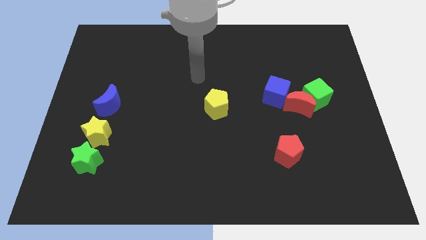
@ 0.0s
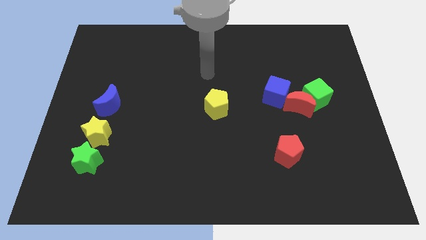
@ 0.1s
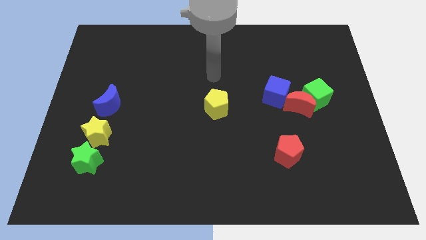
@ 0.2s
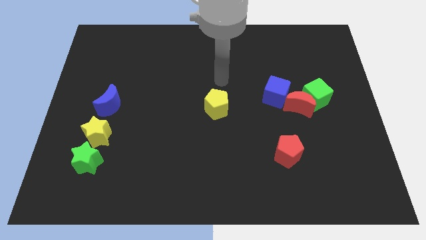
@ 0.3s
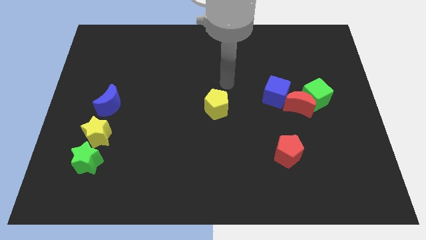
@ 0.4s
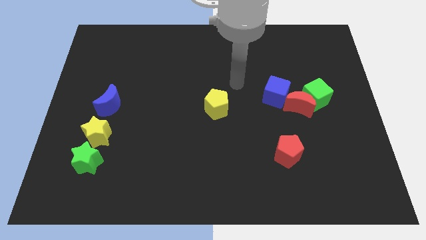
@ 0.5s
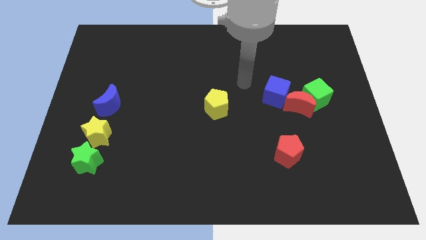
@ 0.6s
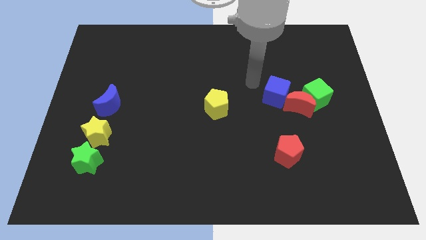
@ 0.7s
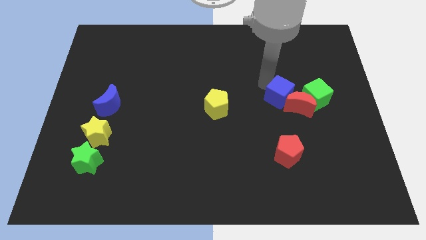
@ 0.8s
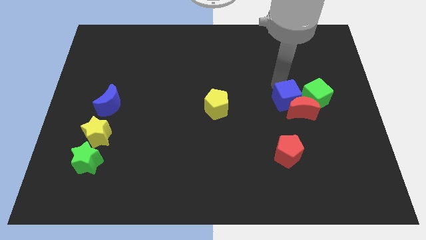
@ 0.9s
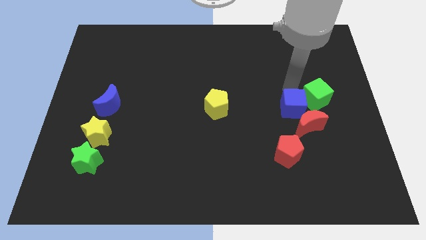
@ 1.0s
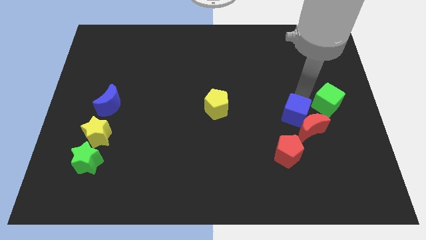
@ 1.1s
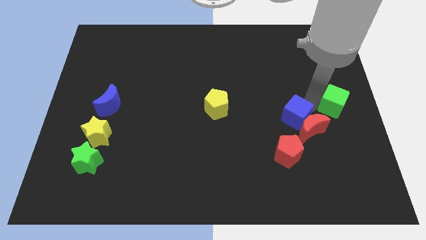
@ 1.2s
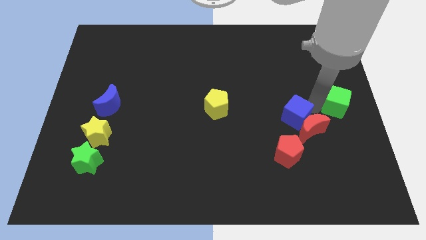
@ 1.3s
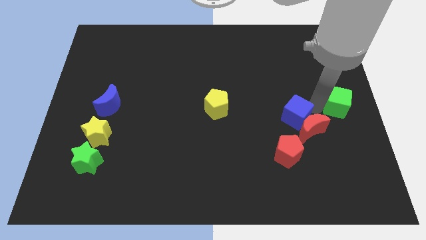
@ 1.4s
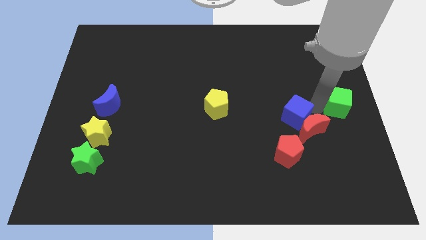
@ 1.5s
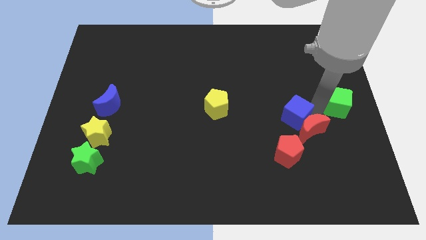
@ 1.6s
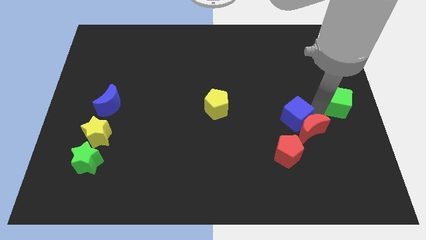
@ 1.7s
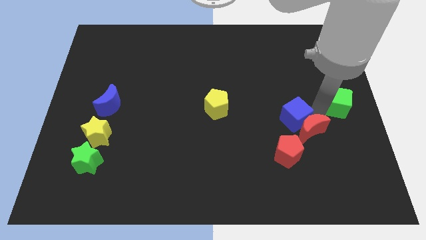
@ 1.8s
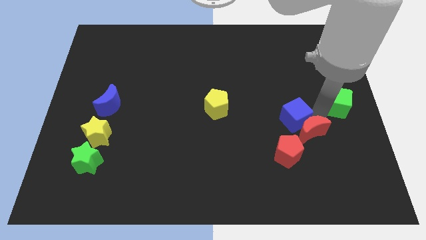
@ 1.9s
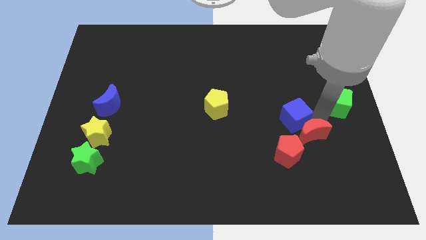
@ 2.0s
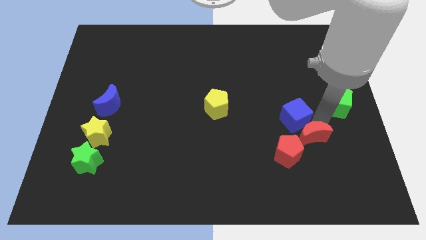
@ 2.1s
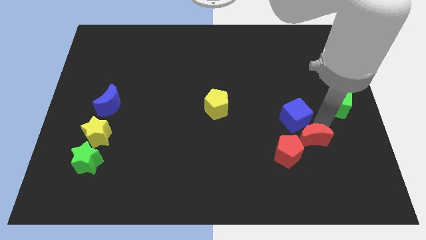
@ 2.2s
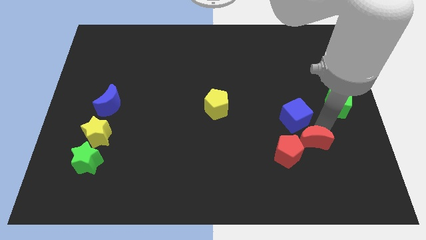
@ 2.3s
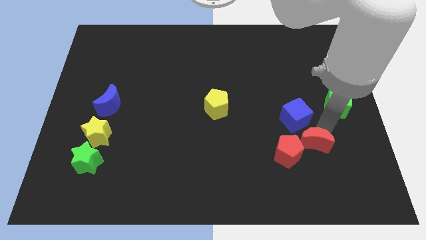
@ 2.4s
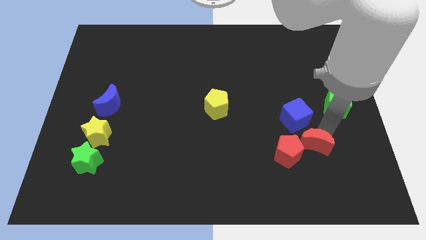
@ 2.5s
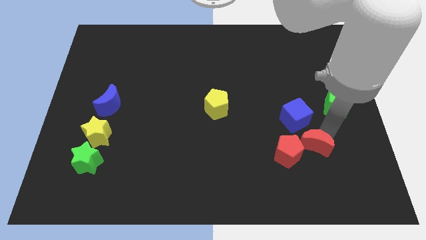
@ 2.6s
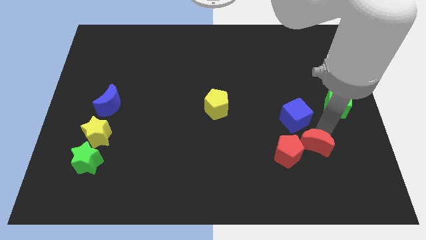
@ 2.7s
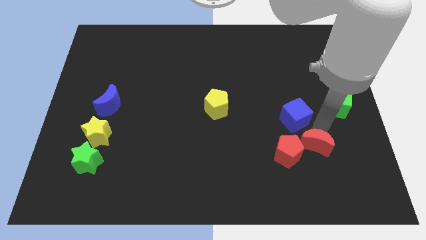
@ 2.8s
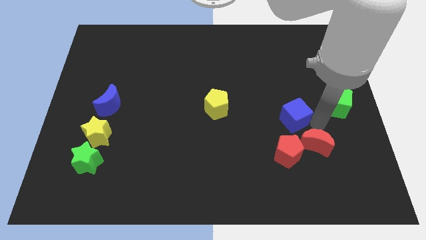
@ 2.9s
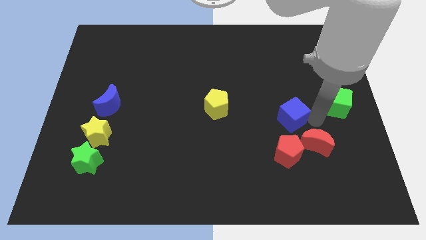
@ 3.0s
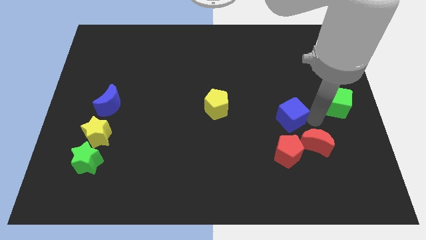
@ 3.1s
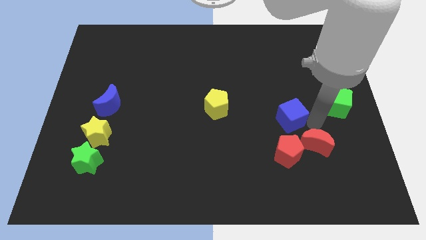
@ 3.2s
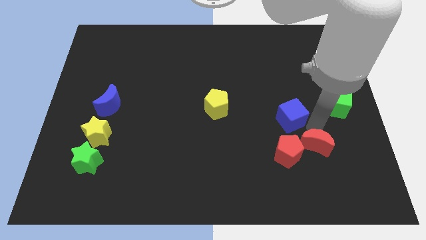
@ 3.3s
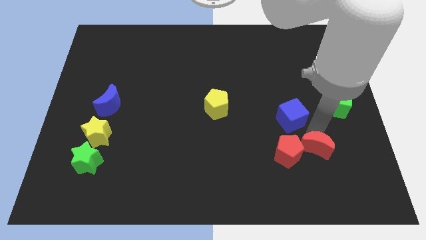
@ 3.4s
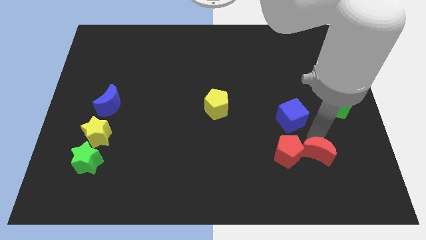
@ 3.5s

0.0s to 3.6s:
move the red moon away from the green cube and blue cube

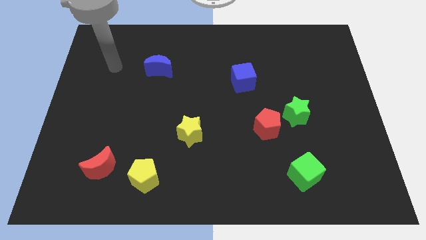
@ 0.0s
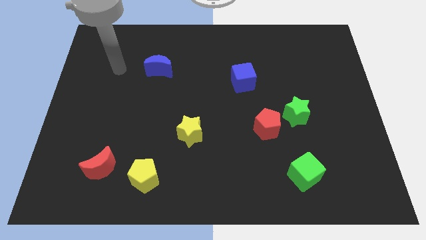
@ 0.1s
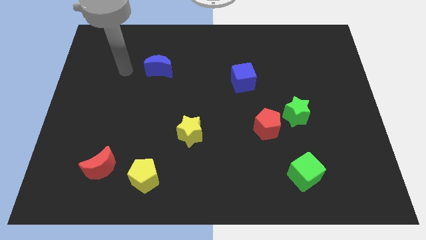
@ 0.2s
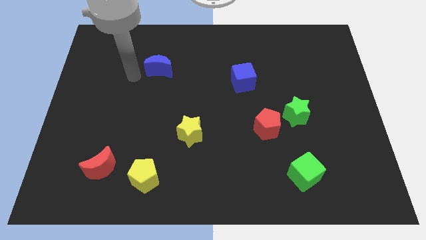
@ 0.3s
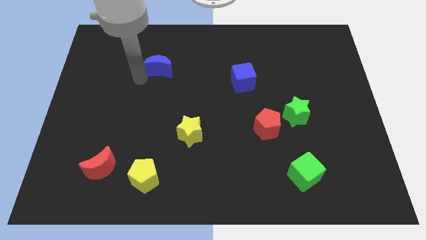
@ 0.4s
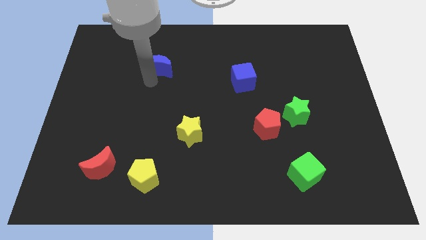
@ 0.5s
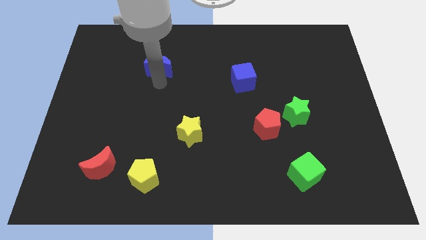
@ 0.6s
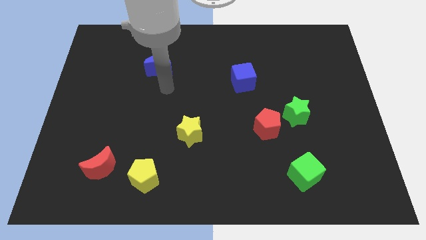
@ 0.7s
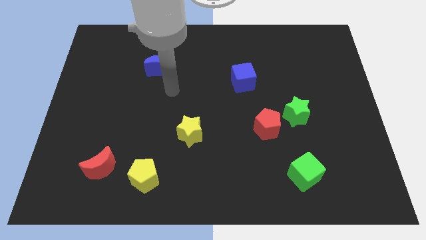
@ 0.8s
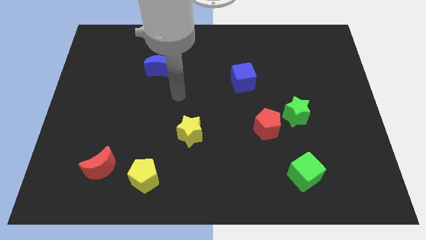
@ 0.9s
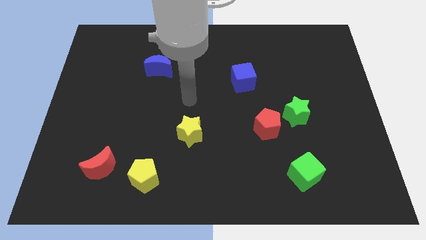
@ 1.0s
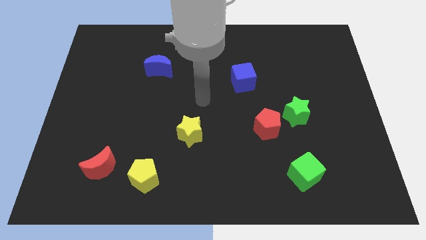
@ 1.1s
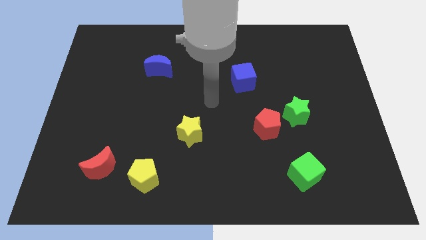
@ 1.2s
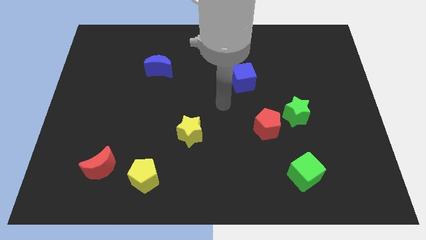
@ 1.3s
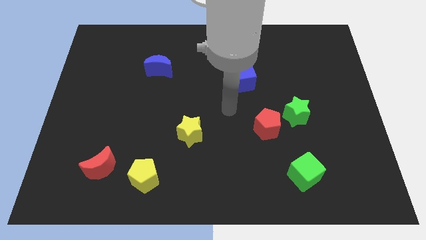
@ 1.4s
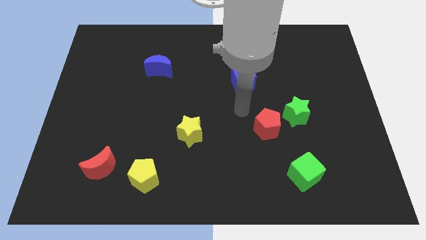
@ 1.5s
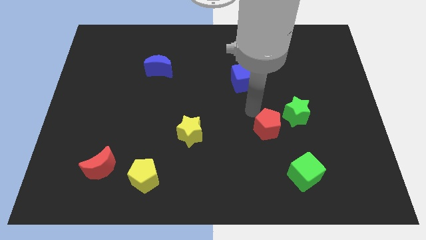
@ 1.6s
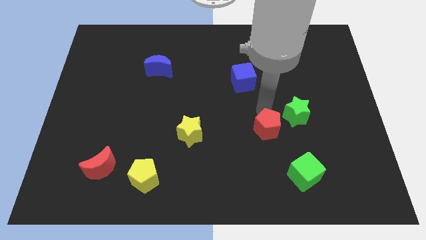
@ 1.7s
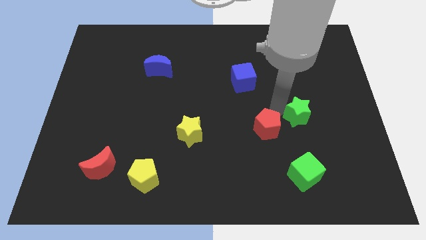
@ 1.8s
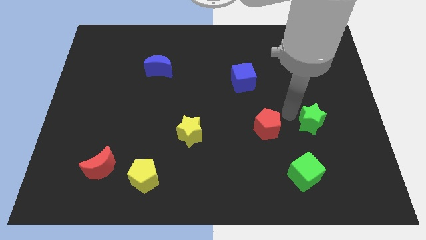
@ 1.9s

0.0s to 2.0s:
pull the red pentagon apart from the green star

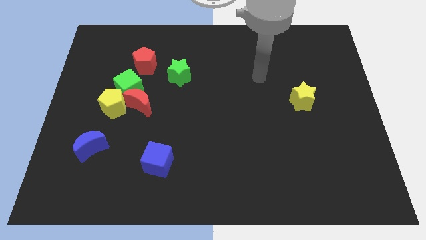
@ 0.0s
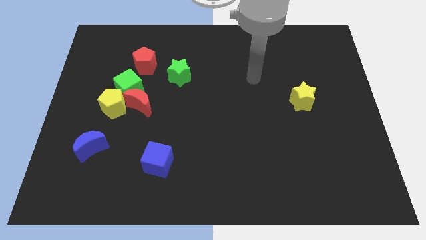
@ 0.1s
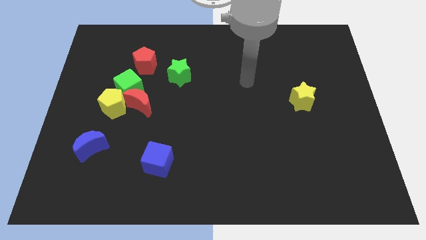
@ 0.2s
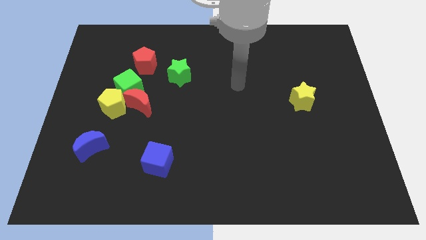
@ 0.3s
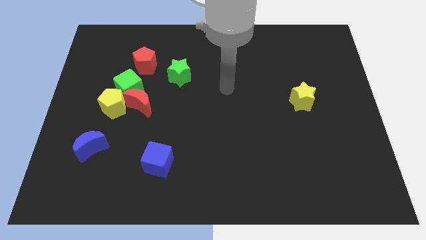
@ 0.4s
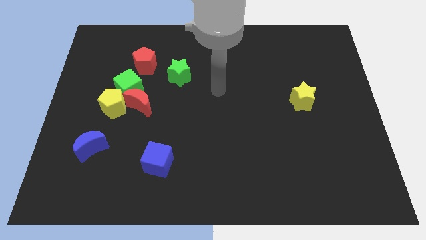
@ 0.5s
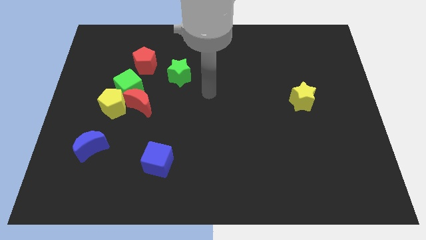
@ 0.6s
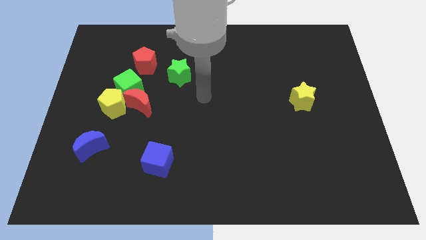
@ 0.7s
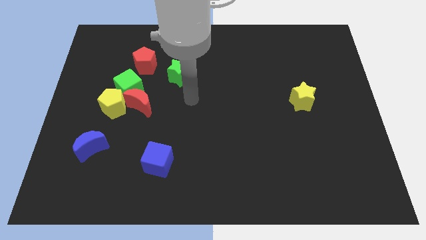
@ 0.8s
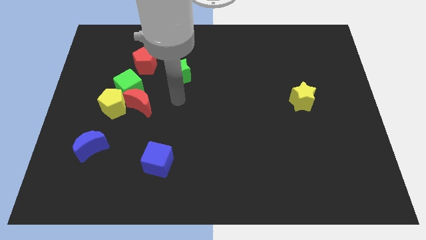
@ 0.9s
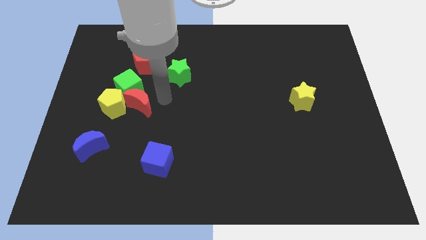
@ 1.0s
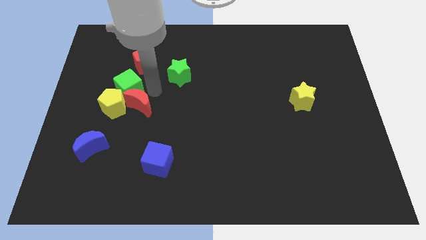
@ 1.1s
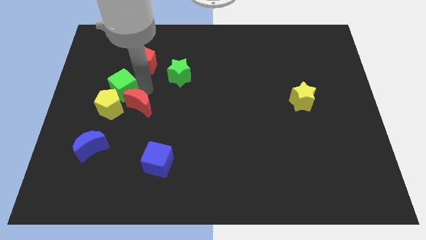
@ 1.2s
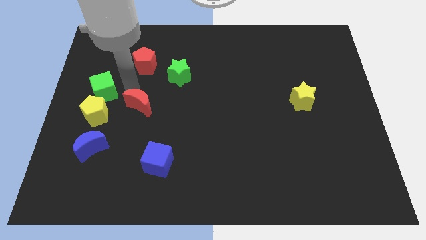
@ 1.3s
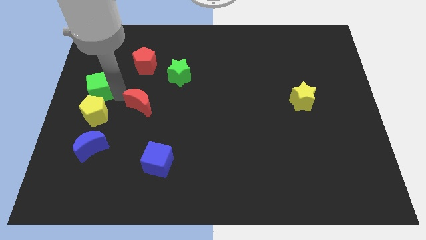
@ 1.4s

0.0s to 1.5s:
pull the red moon apart from the green cube and yellow pentagon

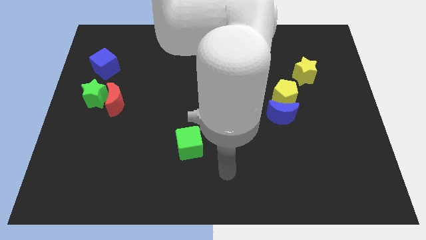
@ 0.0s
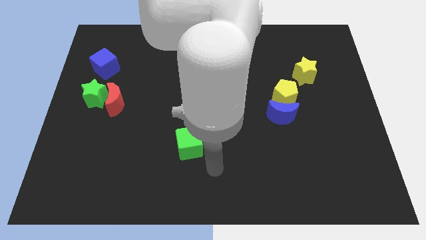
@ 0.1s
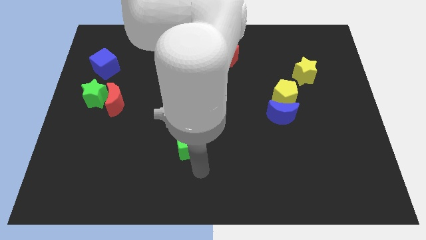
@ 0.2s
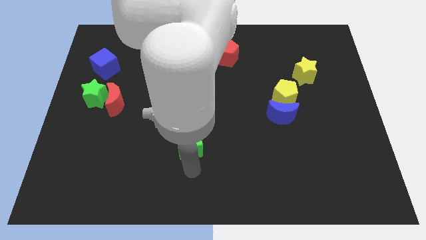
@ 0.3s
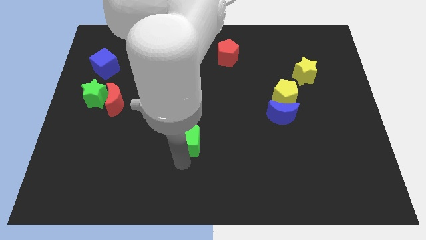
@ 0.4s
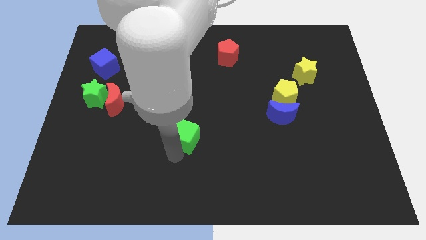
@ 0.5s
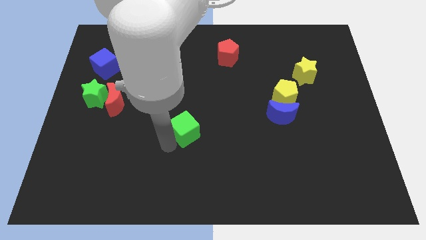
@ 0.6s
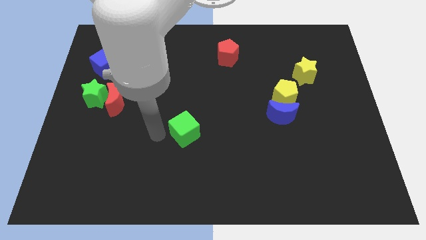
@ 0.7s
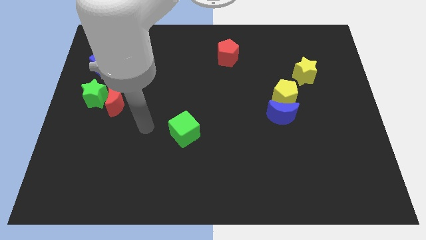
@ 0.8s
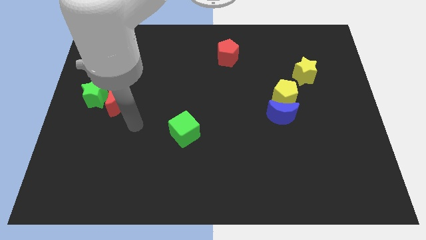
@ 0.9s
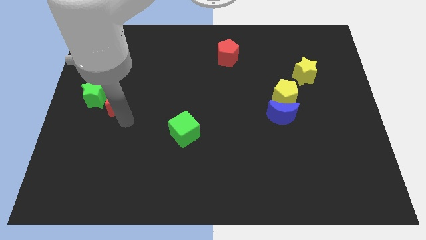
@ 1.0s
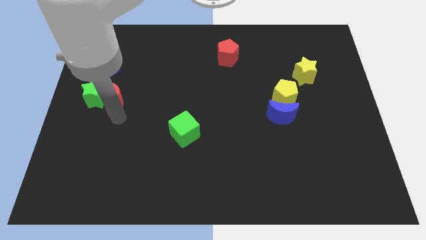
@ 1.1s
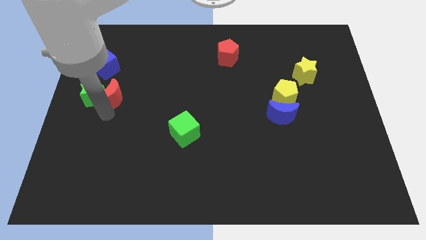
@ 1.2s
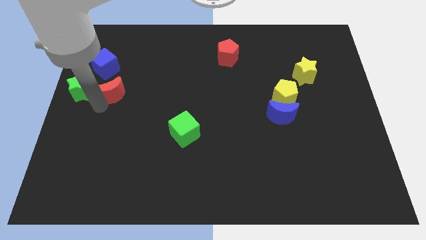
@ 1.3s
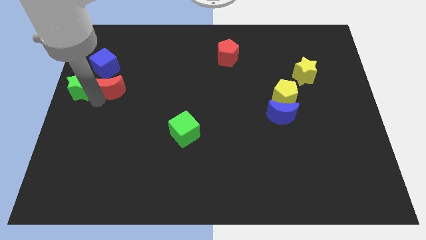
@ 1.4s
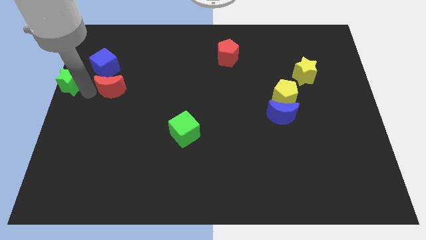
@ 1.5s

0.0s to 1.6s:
move the red moon away from the green star

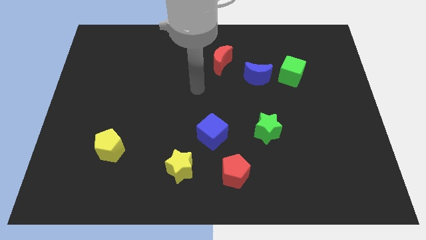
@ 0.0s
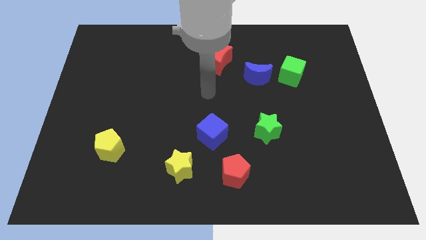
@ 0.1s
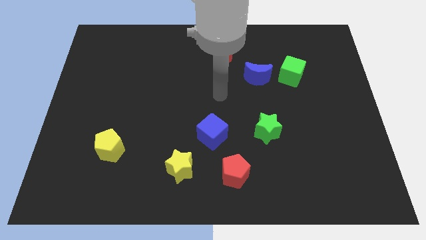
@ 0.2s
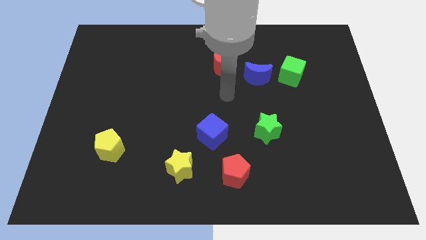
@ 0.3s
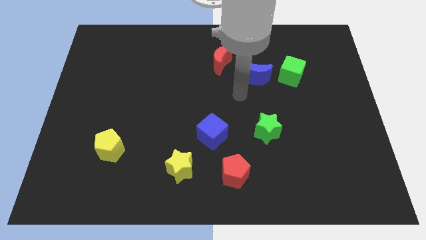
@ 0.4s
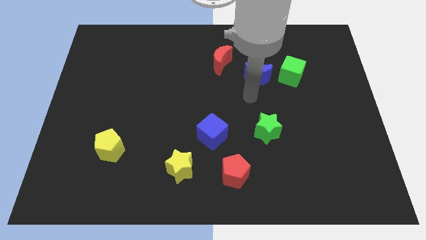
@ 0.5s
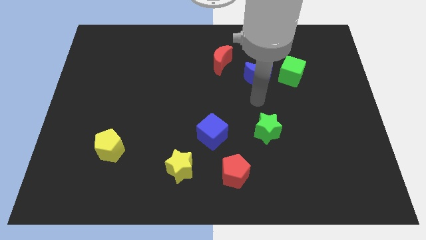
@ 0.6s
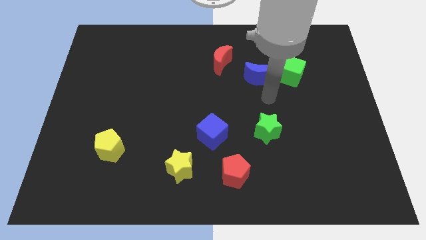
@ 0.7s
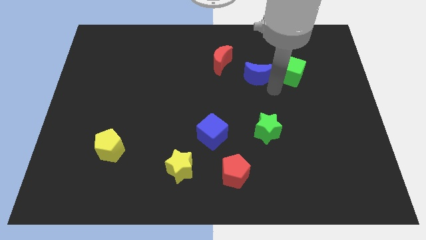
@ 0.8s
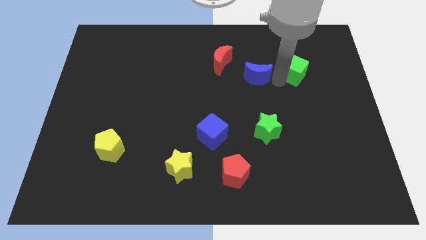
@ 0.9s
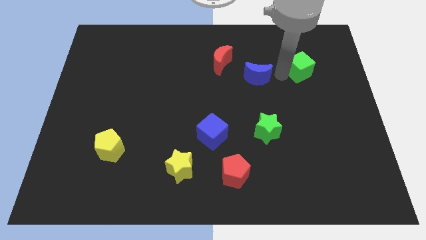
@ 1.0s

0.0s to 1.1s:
pull the blue moon apart from the green cube
